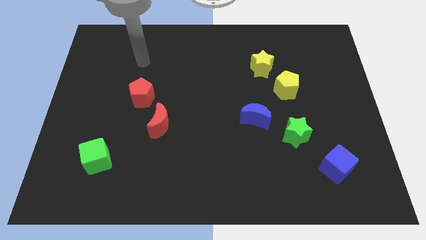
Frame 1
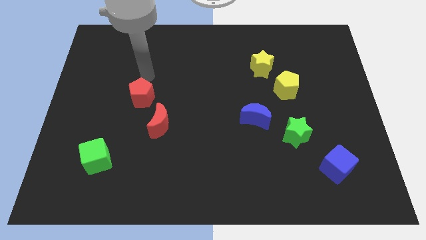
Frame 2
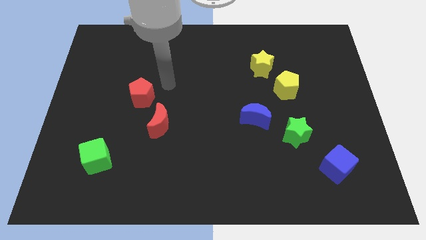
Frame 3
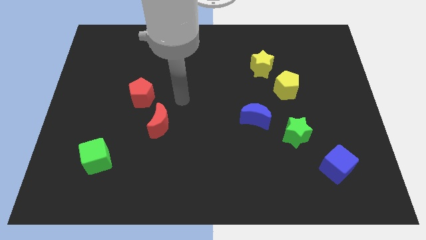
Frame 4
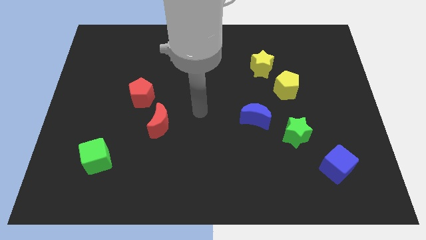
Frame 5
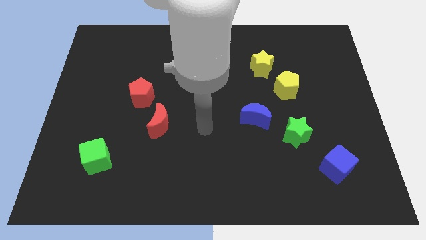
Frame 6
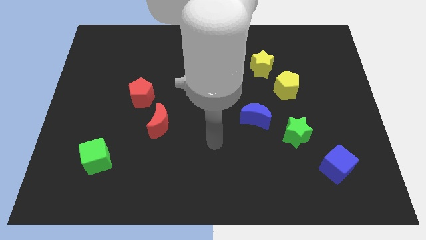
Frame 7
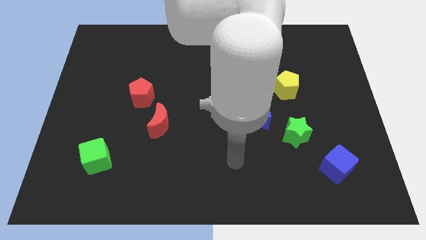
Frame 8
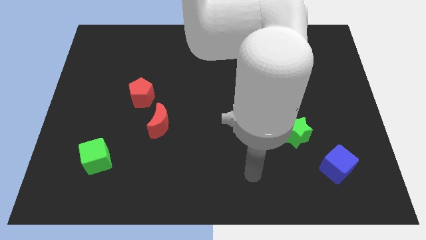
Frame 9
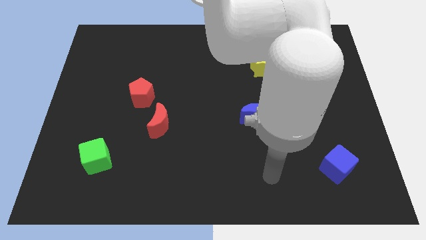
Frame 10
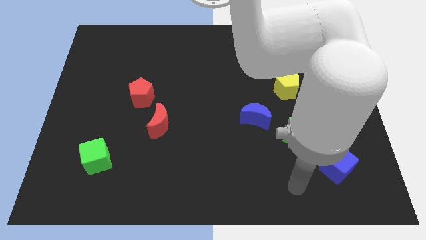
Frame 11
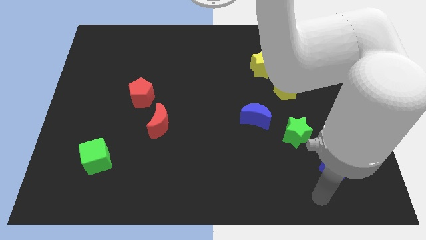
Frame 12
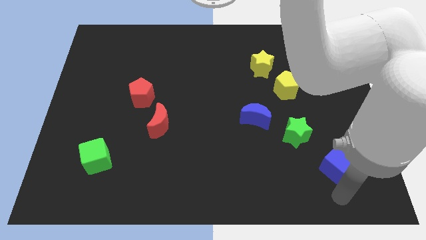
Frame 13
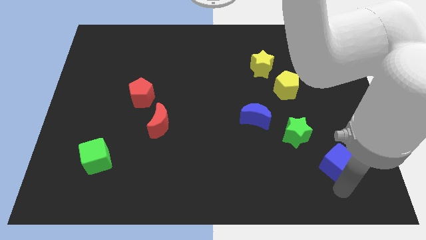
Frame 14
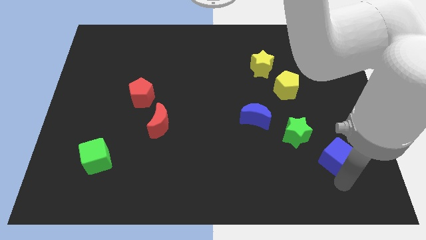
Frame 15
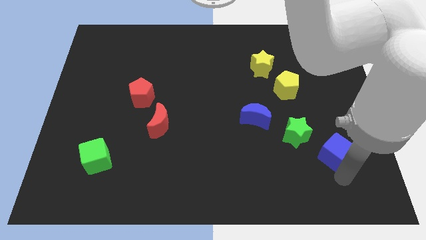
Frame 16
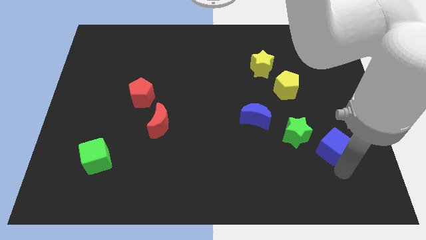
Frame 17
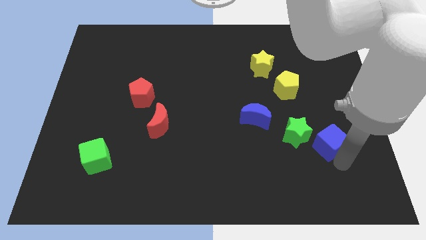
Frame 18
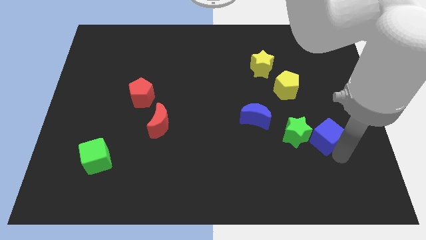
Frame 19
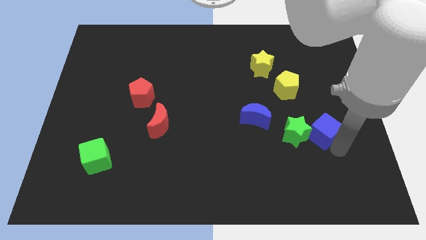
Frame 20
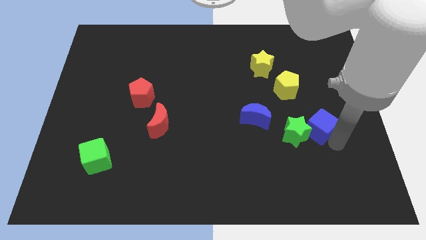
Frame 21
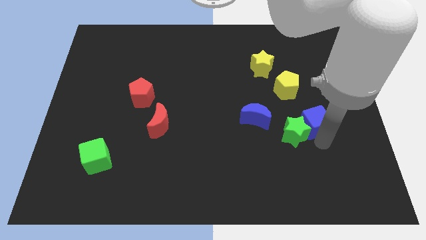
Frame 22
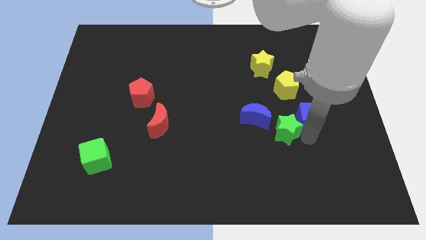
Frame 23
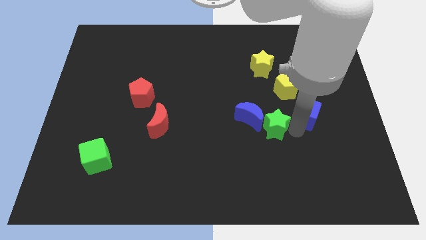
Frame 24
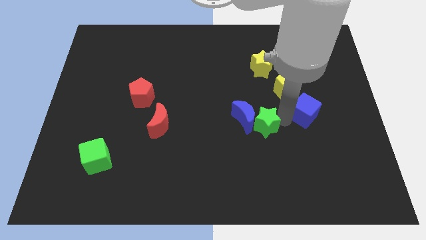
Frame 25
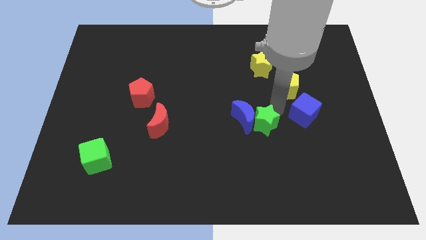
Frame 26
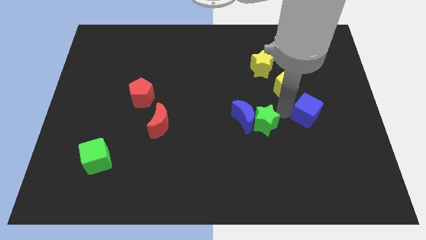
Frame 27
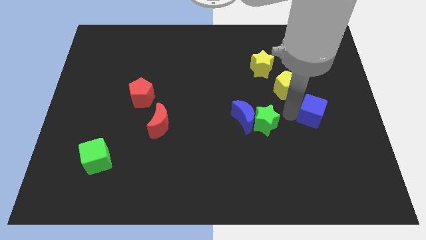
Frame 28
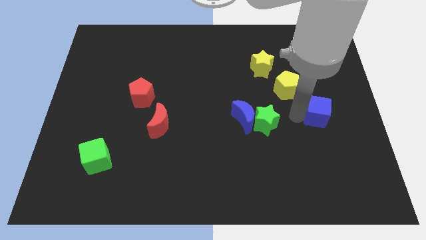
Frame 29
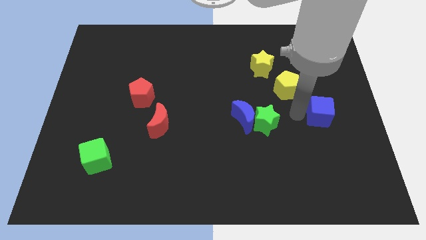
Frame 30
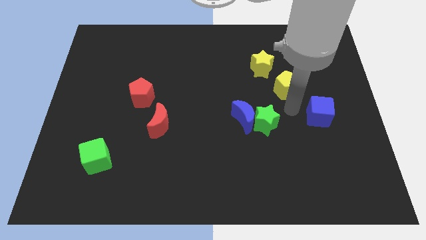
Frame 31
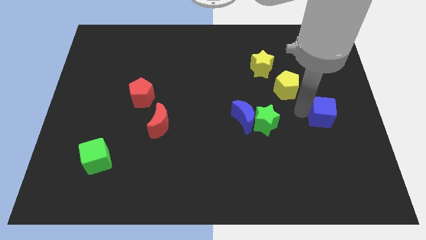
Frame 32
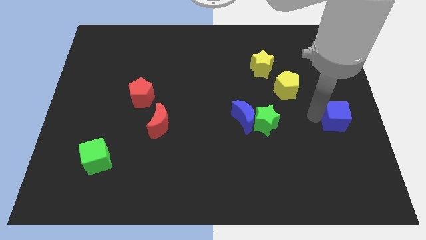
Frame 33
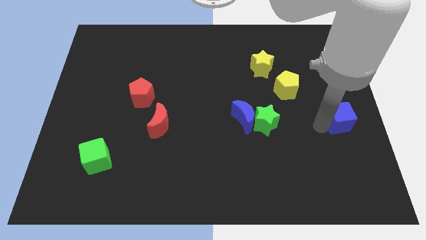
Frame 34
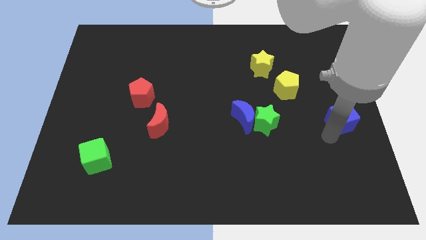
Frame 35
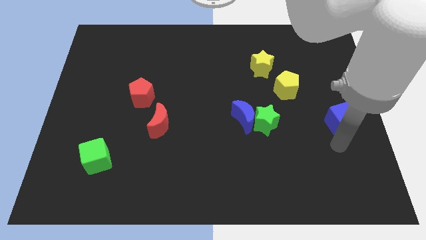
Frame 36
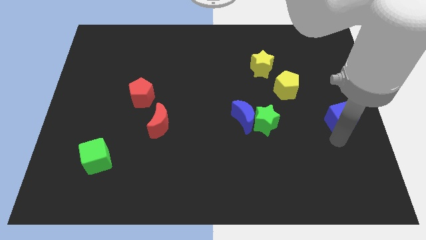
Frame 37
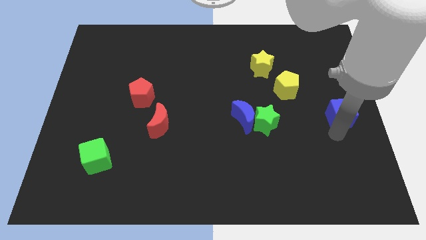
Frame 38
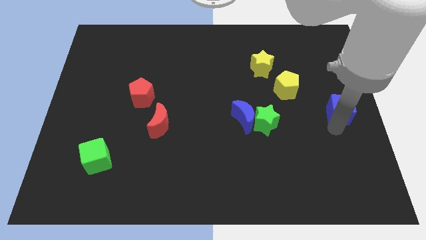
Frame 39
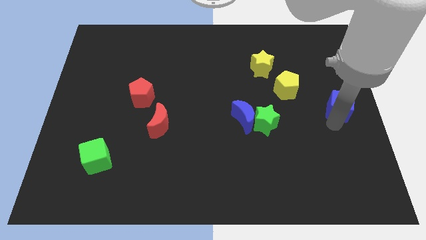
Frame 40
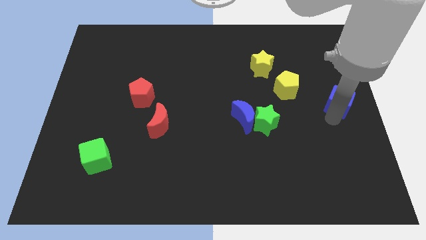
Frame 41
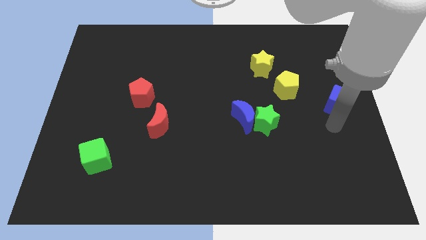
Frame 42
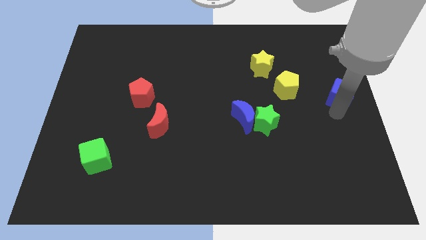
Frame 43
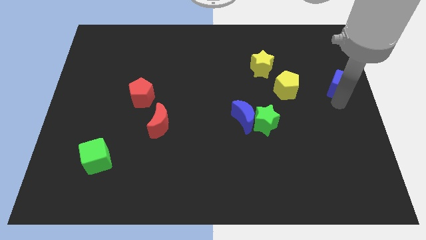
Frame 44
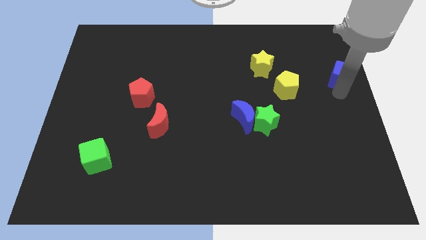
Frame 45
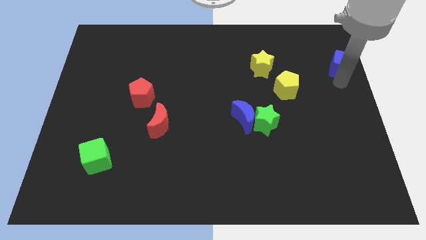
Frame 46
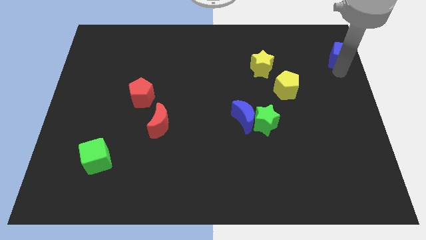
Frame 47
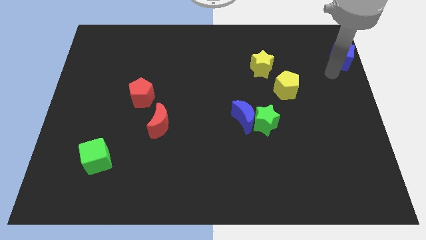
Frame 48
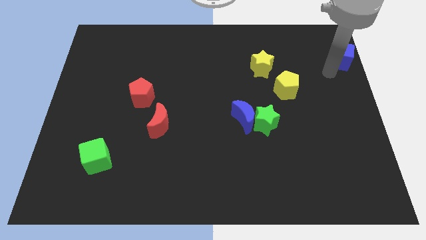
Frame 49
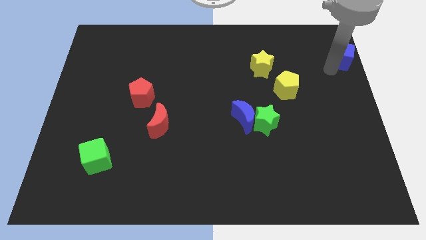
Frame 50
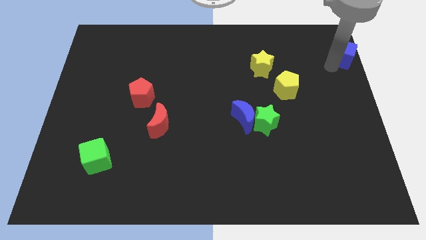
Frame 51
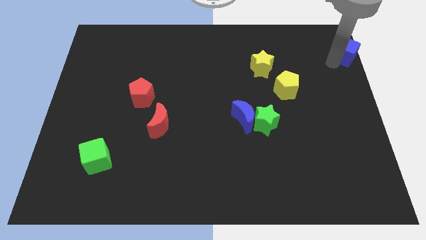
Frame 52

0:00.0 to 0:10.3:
put the blue cube to the upper right corner

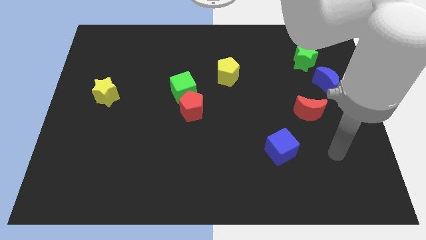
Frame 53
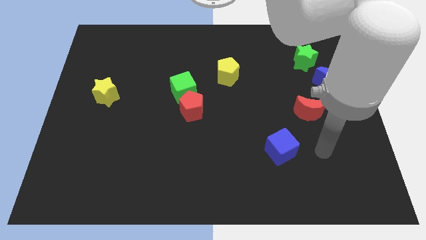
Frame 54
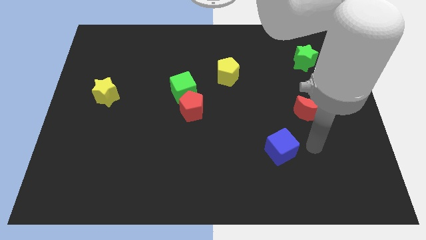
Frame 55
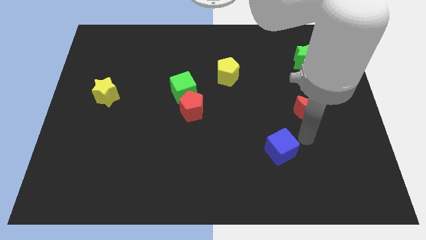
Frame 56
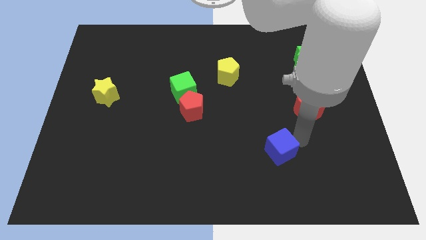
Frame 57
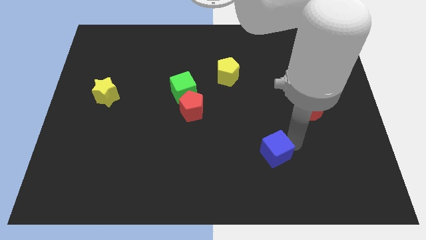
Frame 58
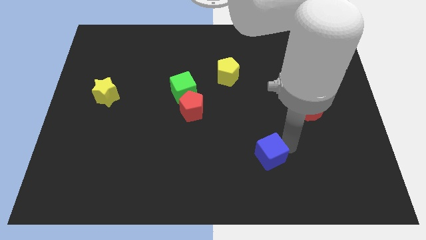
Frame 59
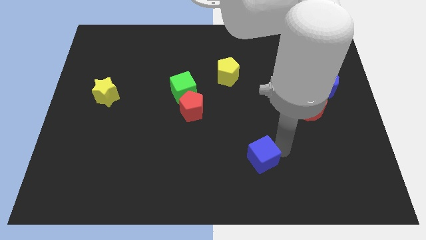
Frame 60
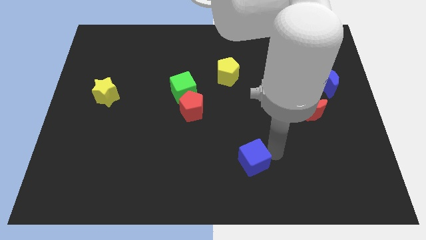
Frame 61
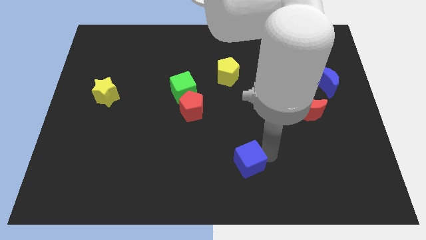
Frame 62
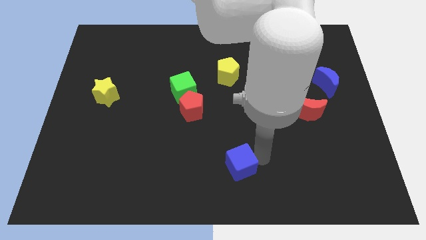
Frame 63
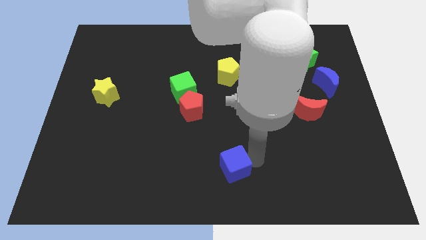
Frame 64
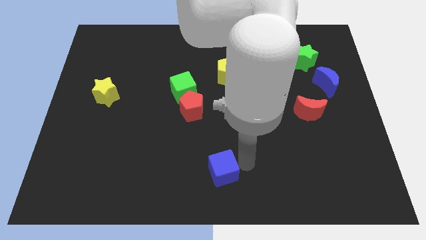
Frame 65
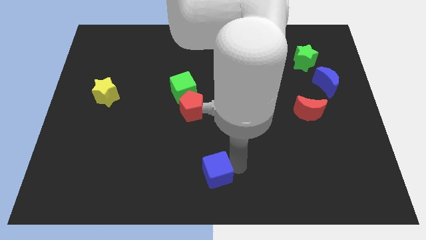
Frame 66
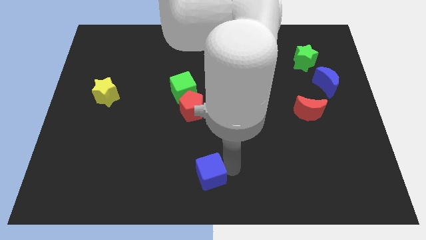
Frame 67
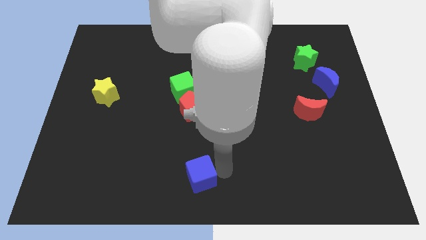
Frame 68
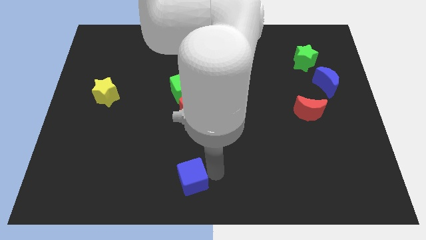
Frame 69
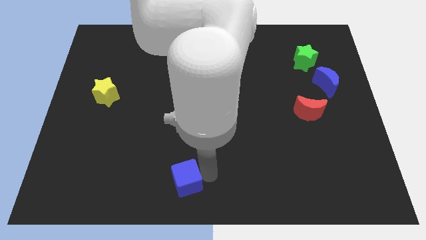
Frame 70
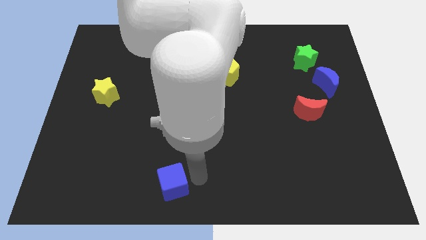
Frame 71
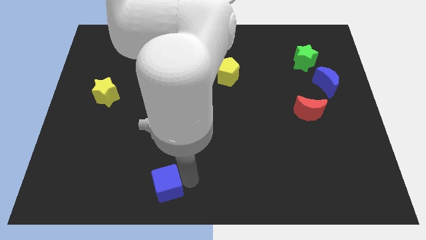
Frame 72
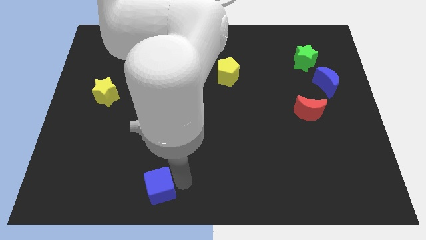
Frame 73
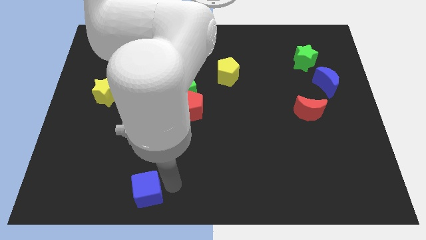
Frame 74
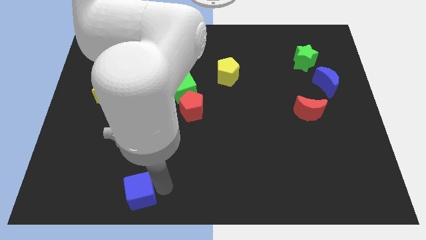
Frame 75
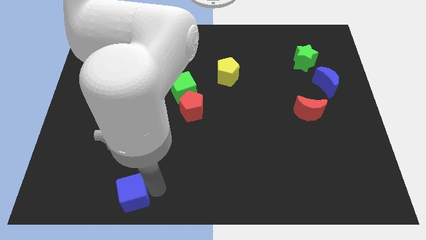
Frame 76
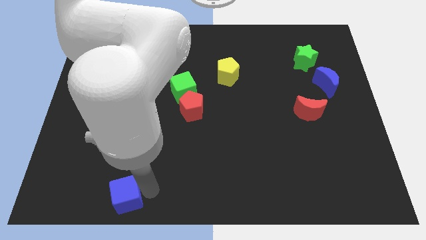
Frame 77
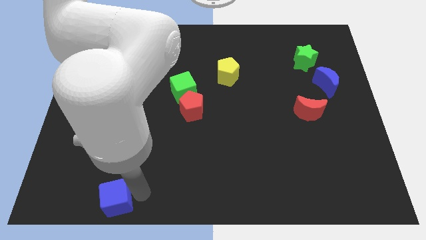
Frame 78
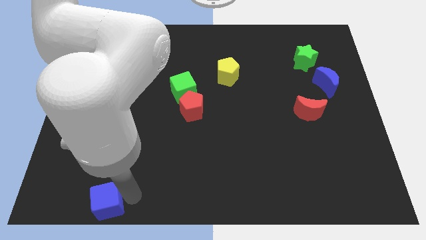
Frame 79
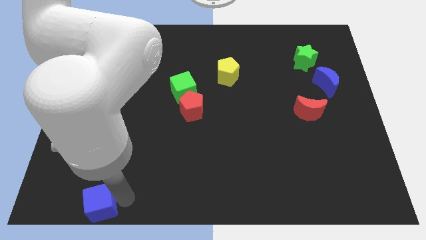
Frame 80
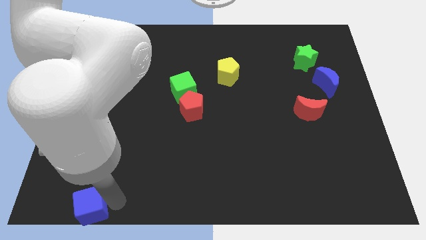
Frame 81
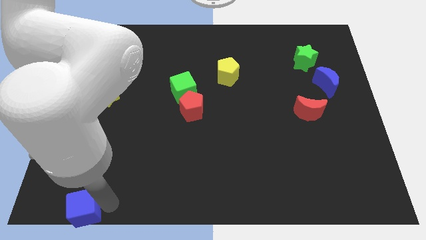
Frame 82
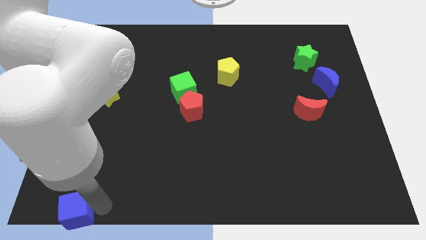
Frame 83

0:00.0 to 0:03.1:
put the blue cube to the lower left corner
